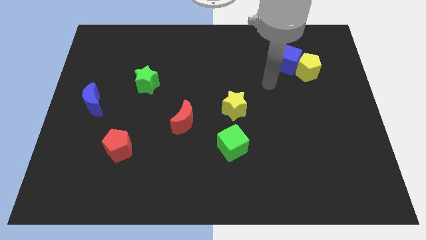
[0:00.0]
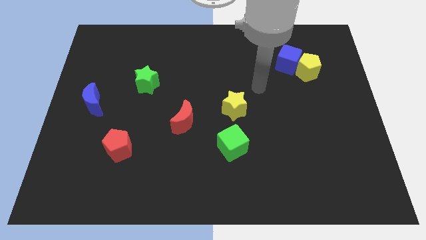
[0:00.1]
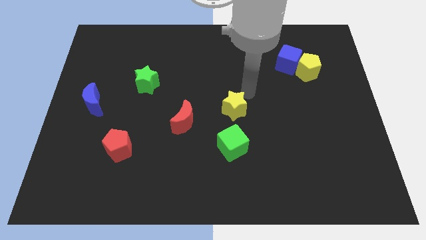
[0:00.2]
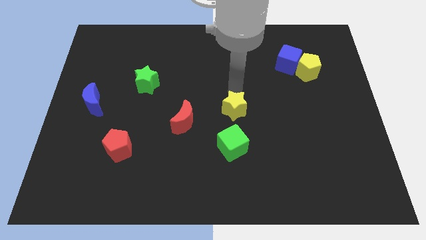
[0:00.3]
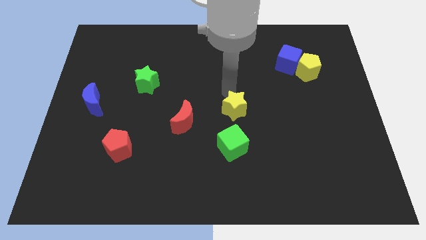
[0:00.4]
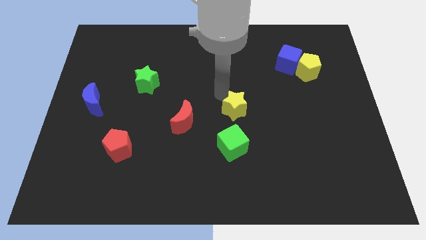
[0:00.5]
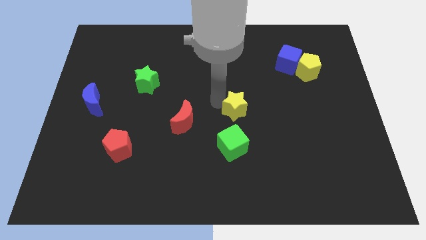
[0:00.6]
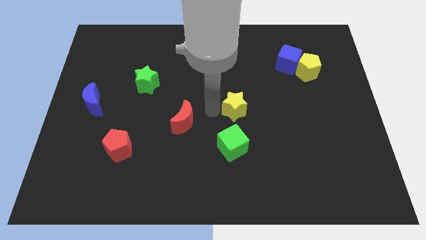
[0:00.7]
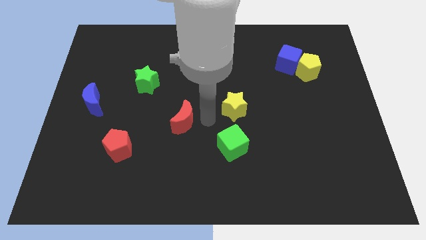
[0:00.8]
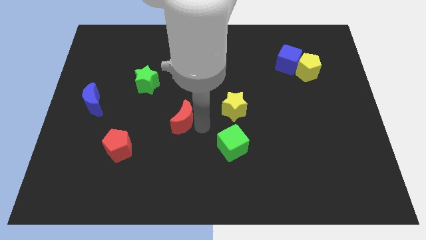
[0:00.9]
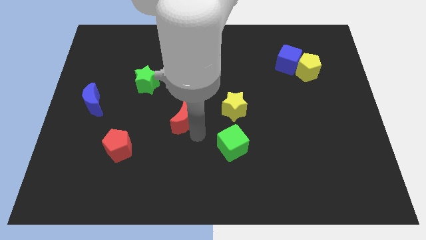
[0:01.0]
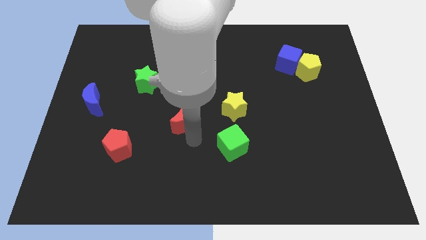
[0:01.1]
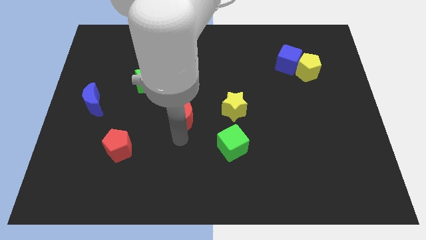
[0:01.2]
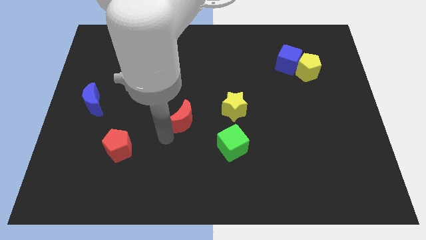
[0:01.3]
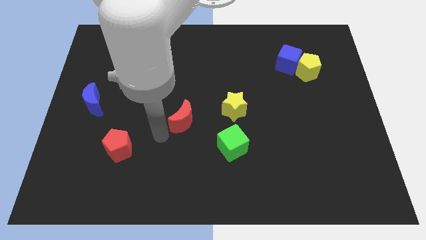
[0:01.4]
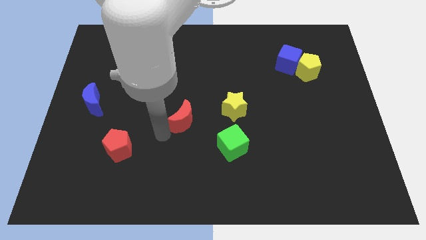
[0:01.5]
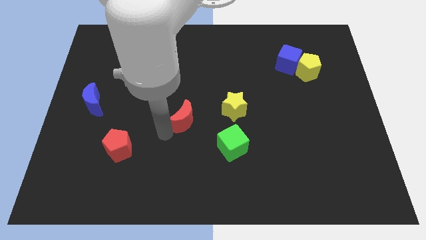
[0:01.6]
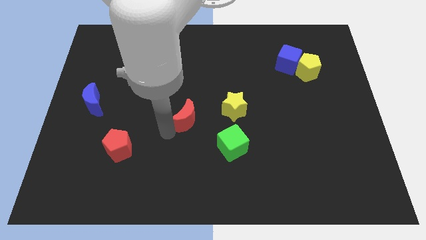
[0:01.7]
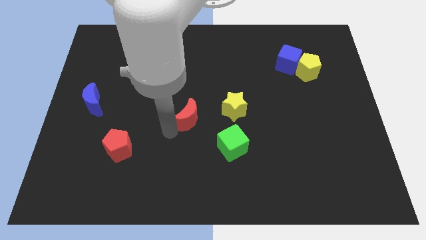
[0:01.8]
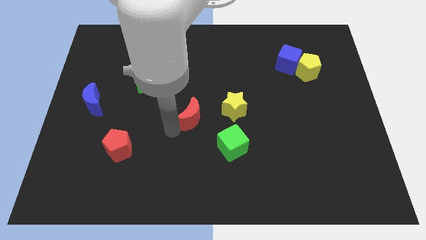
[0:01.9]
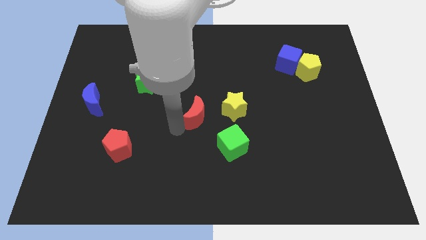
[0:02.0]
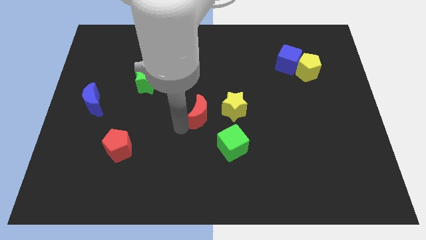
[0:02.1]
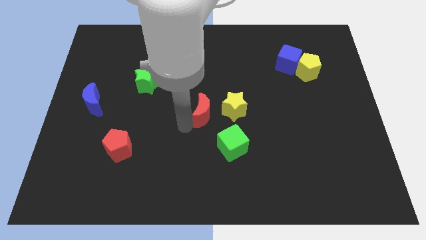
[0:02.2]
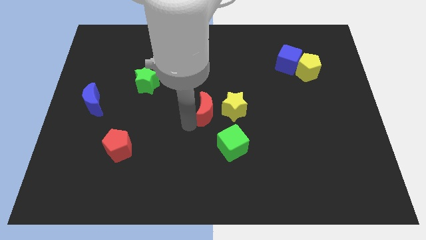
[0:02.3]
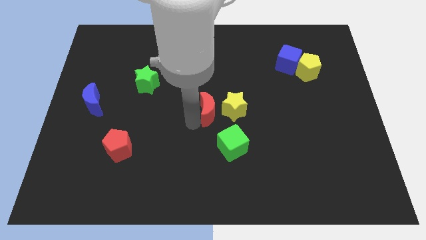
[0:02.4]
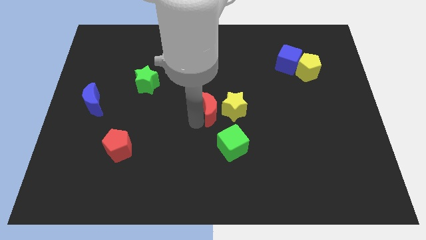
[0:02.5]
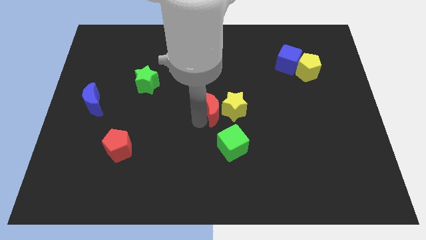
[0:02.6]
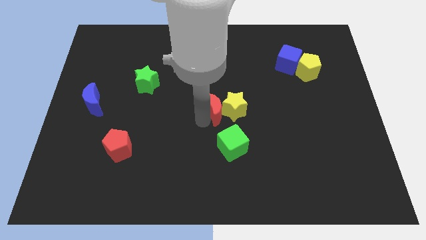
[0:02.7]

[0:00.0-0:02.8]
slightly slide the red moon diagonally up and right

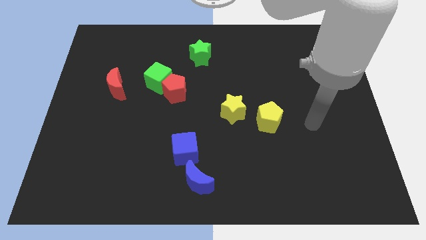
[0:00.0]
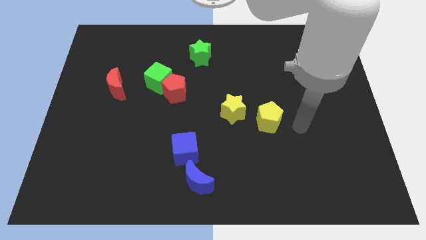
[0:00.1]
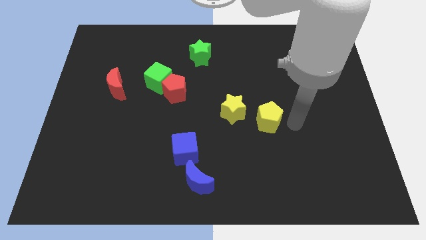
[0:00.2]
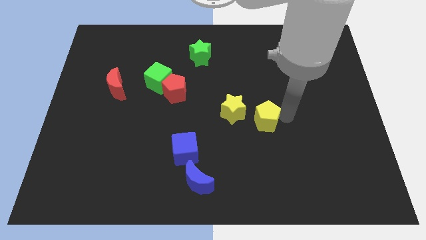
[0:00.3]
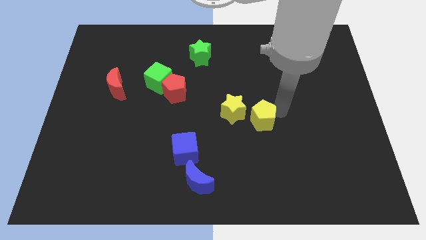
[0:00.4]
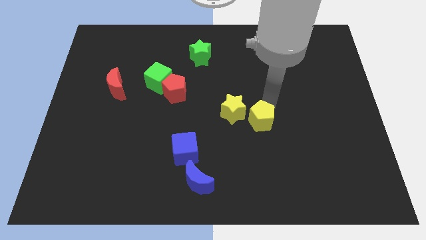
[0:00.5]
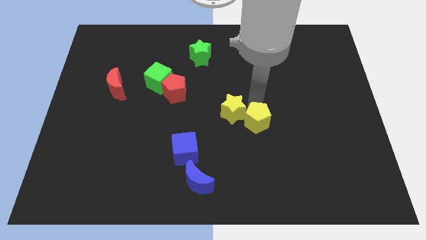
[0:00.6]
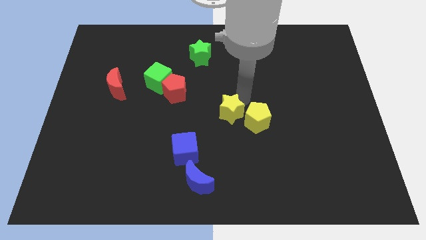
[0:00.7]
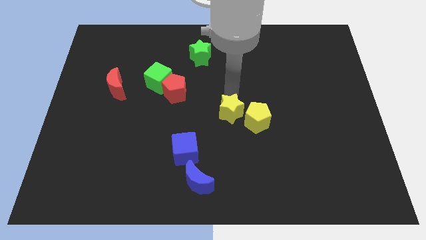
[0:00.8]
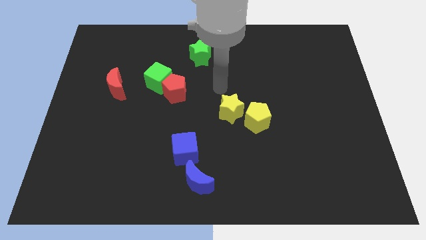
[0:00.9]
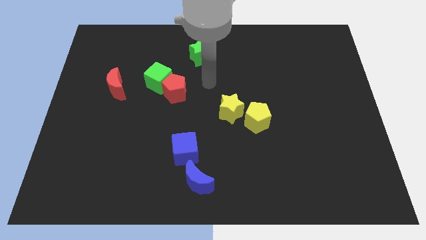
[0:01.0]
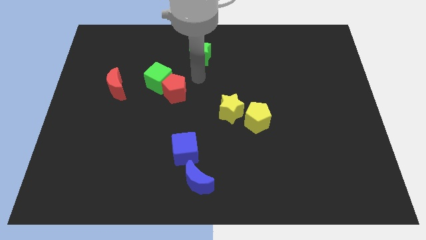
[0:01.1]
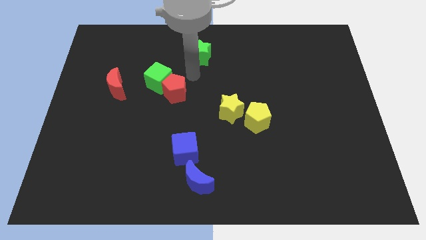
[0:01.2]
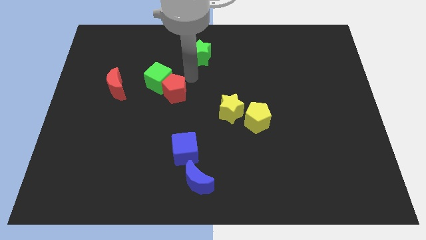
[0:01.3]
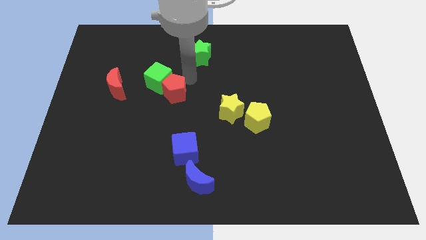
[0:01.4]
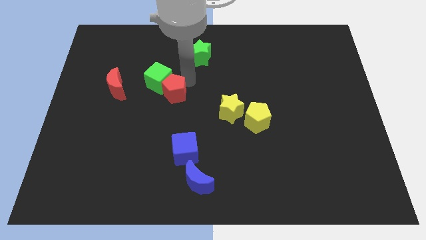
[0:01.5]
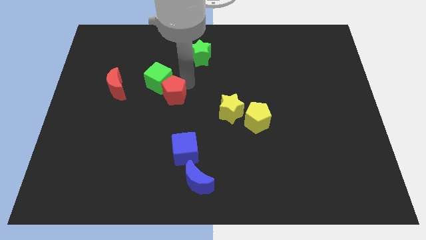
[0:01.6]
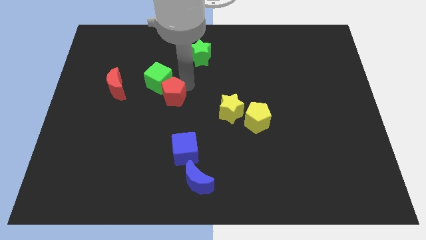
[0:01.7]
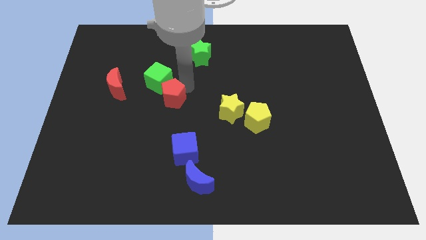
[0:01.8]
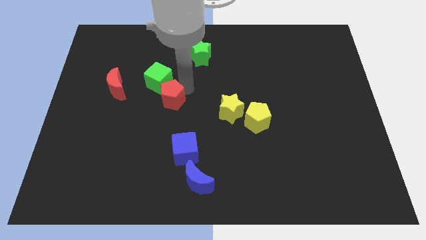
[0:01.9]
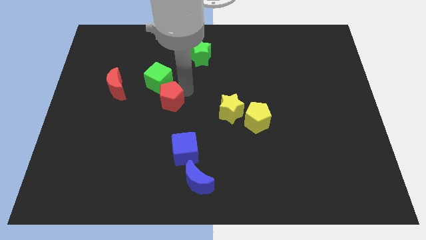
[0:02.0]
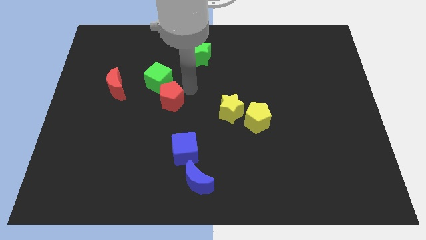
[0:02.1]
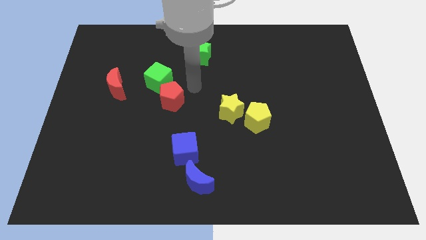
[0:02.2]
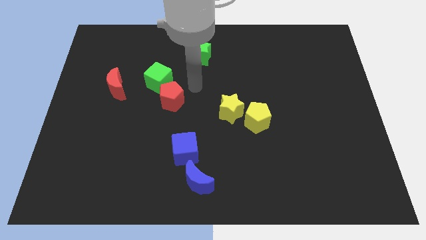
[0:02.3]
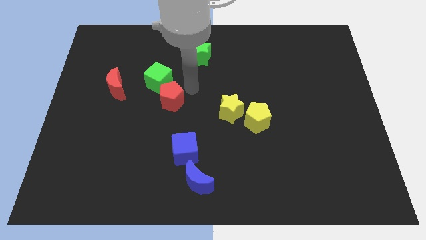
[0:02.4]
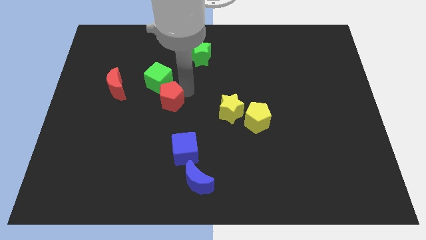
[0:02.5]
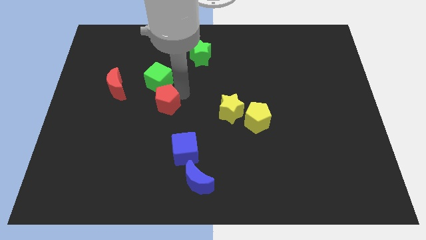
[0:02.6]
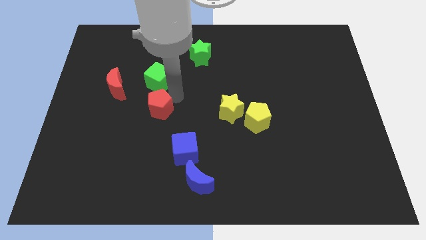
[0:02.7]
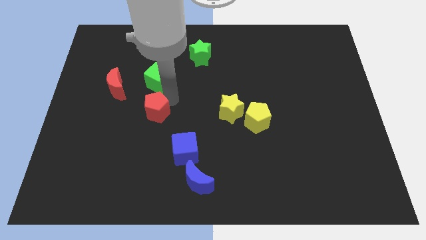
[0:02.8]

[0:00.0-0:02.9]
slide the red pentagon a bit downwards and to the left diagonally

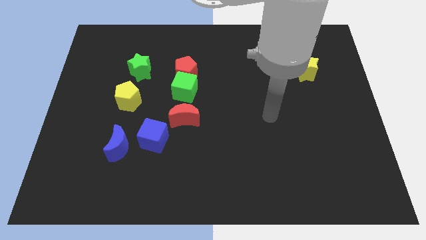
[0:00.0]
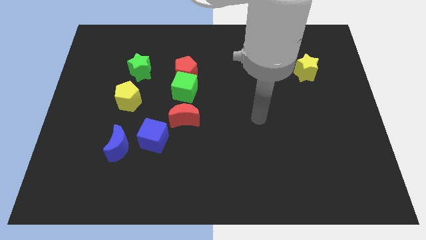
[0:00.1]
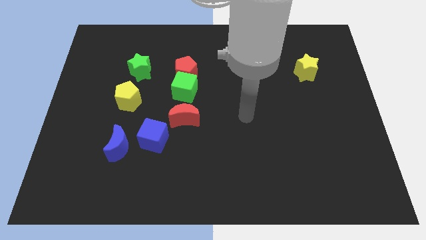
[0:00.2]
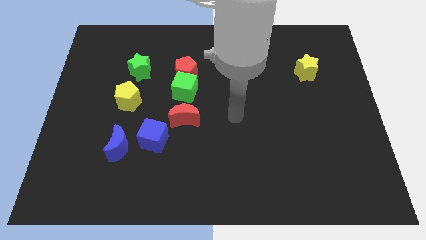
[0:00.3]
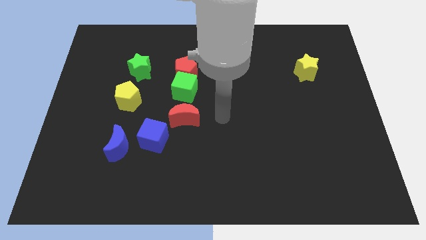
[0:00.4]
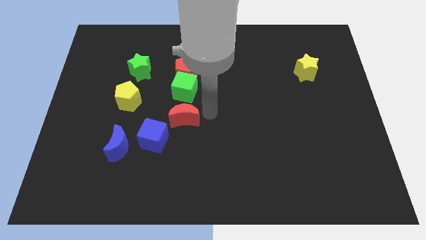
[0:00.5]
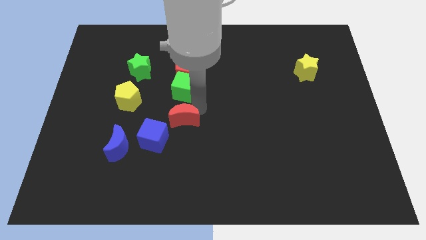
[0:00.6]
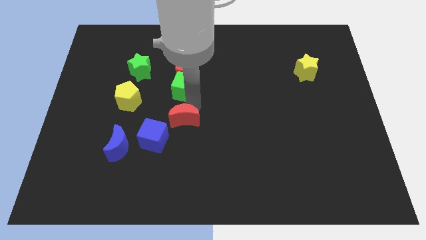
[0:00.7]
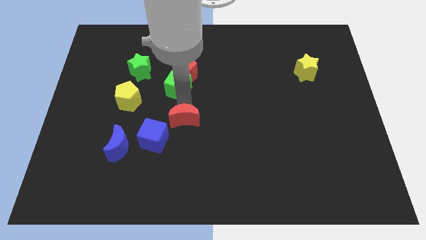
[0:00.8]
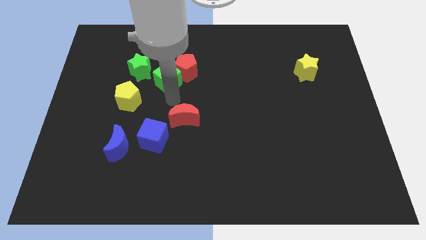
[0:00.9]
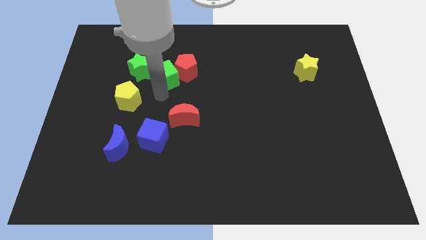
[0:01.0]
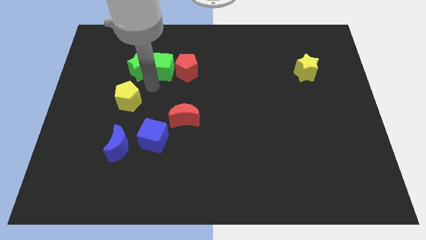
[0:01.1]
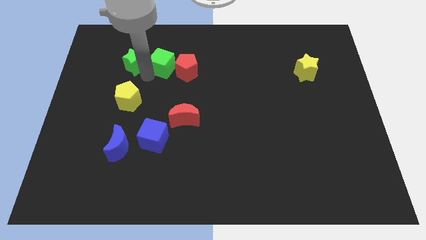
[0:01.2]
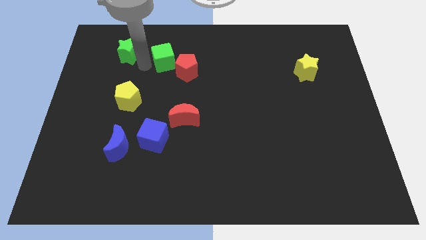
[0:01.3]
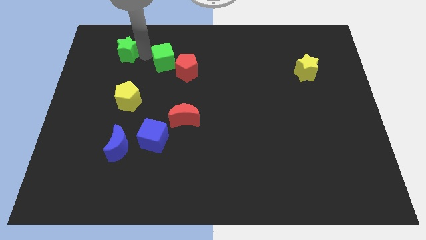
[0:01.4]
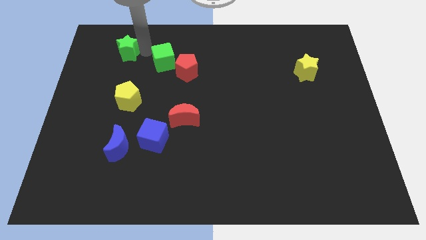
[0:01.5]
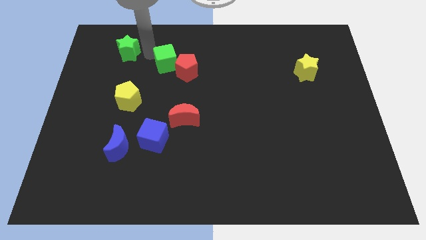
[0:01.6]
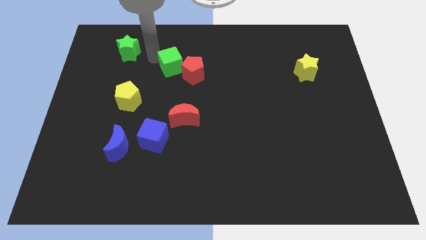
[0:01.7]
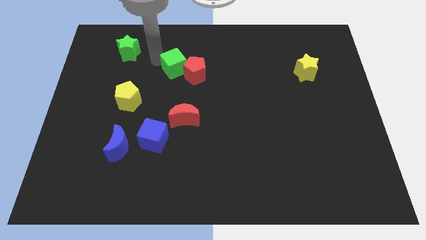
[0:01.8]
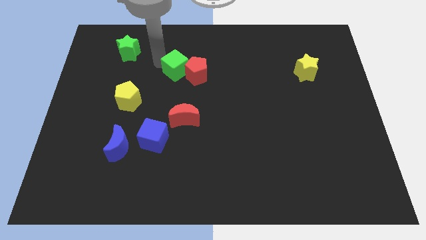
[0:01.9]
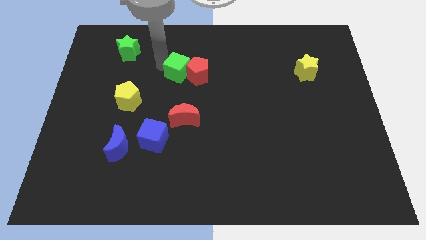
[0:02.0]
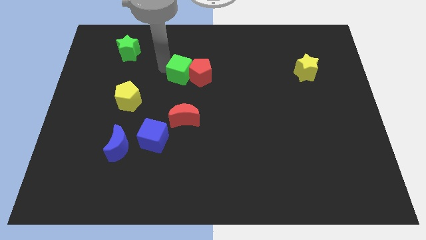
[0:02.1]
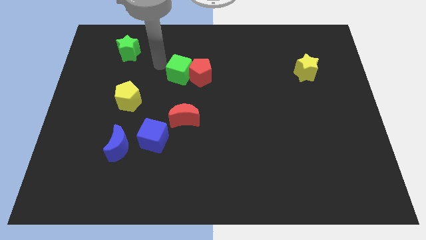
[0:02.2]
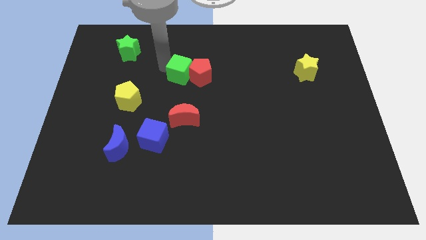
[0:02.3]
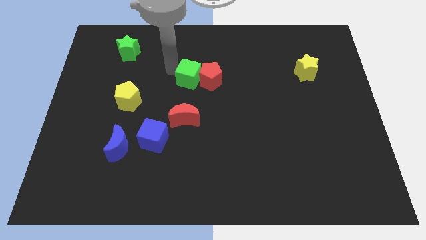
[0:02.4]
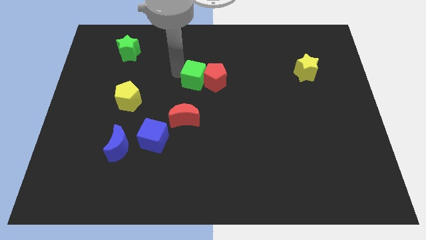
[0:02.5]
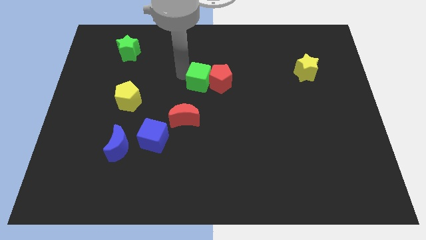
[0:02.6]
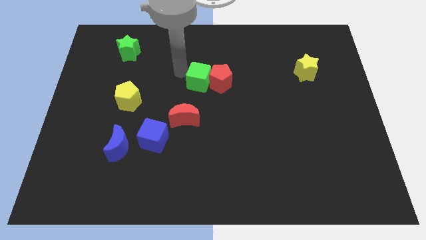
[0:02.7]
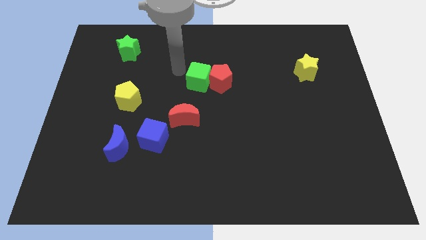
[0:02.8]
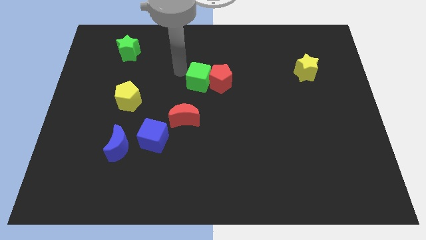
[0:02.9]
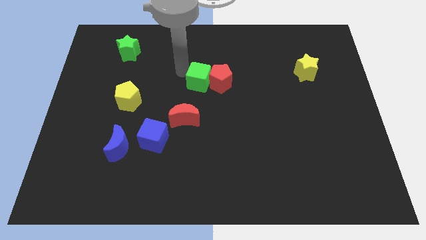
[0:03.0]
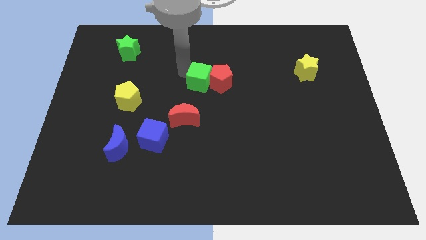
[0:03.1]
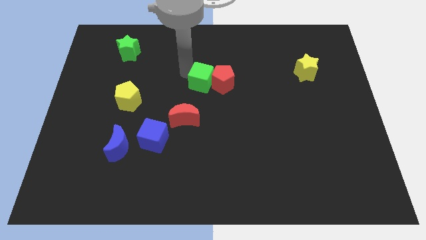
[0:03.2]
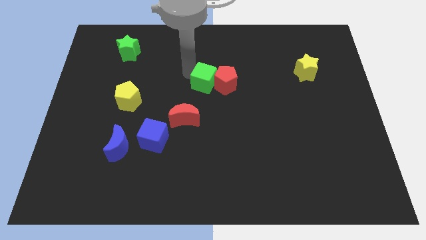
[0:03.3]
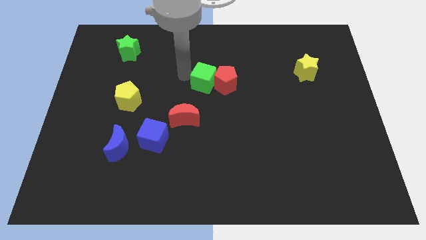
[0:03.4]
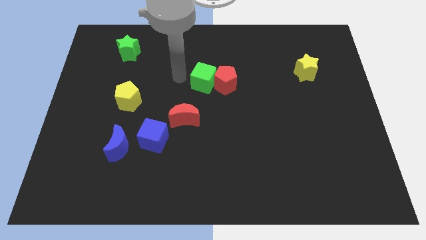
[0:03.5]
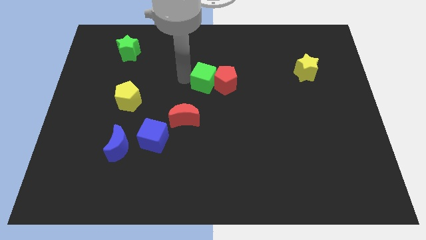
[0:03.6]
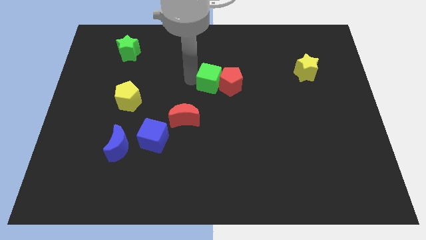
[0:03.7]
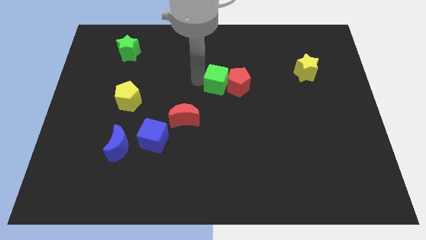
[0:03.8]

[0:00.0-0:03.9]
push the green cube right a little bit
